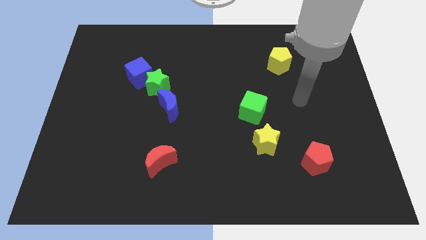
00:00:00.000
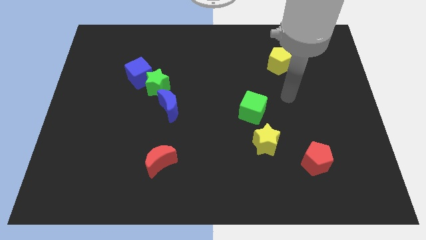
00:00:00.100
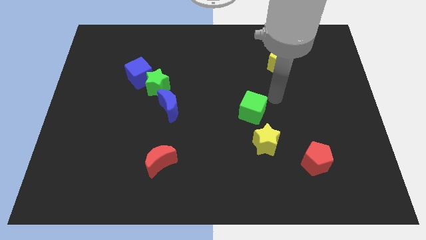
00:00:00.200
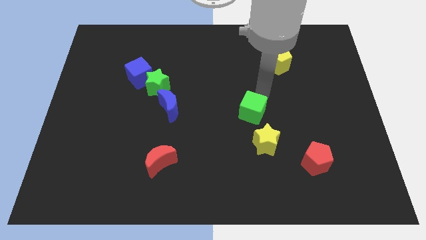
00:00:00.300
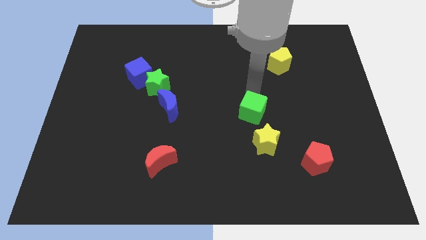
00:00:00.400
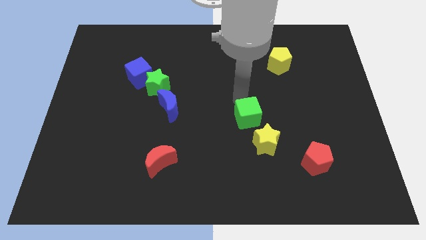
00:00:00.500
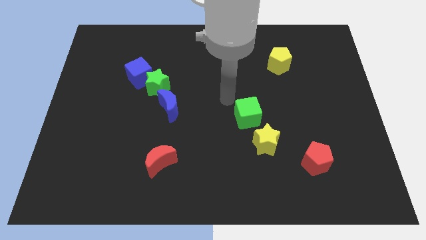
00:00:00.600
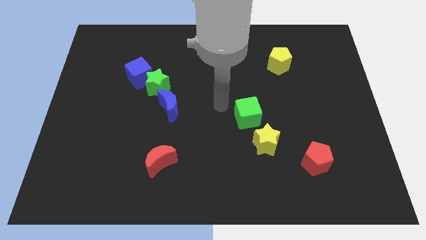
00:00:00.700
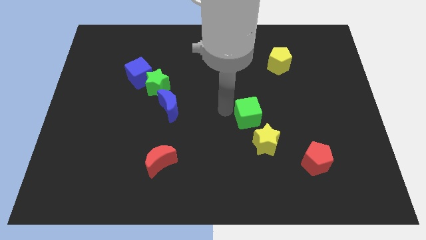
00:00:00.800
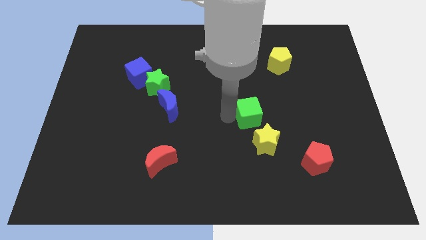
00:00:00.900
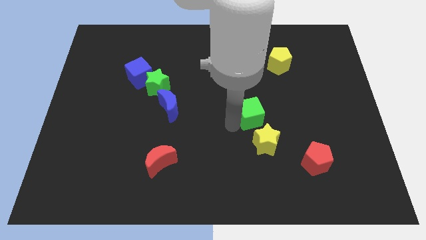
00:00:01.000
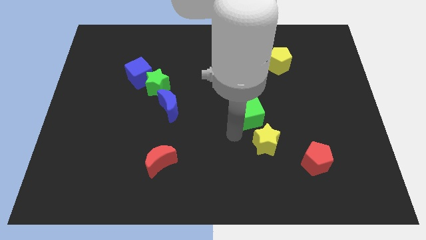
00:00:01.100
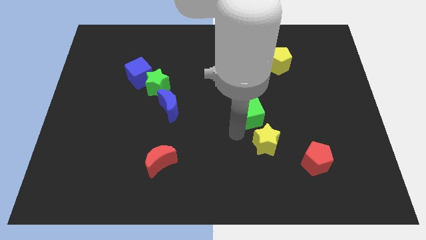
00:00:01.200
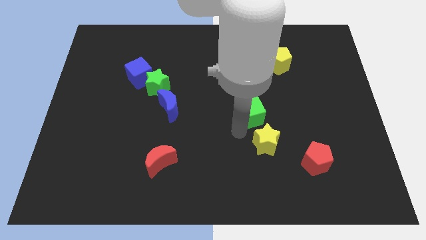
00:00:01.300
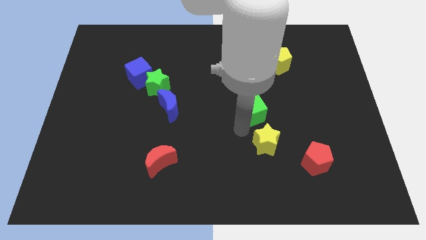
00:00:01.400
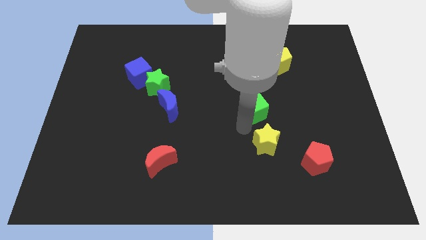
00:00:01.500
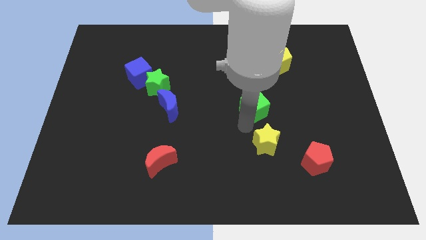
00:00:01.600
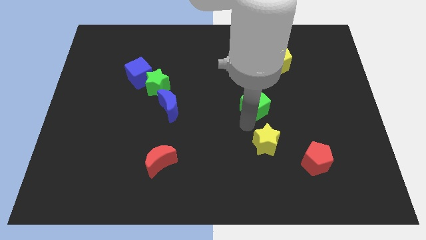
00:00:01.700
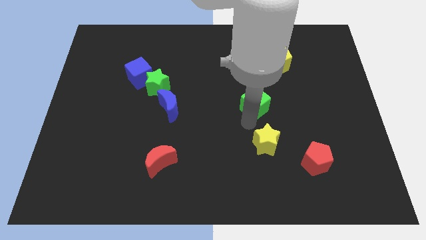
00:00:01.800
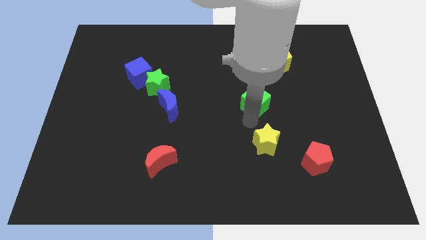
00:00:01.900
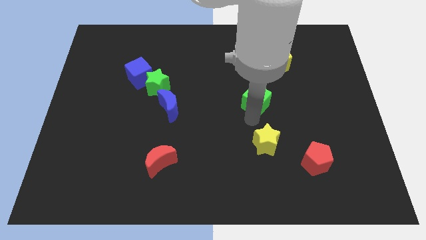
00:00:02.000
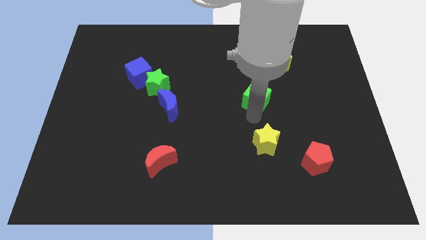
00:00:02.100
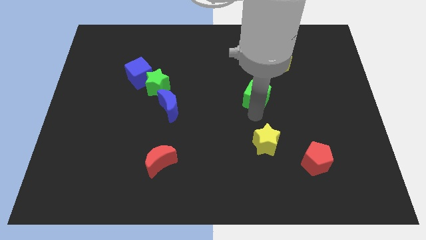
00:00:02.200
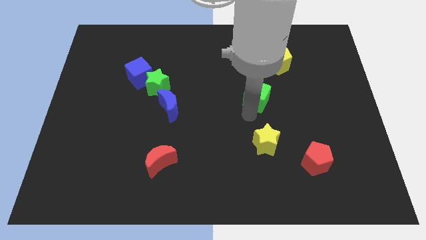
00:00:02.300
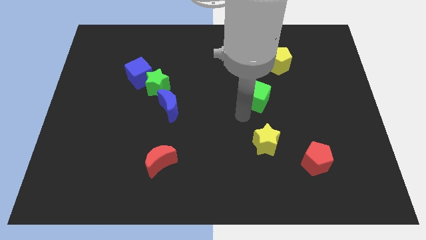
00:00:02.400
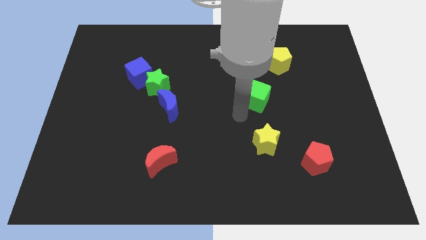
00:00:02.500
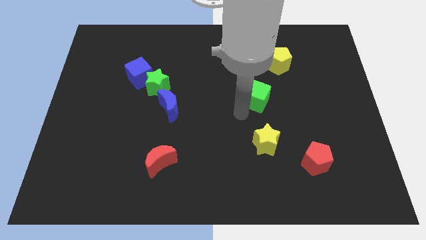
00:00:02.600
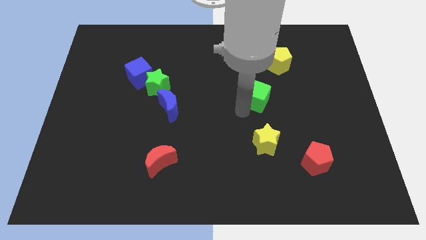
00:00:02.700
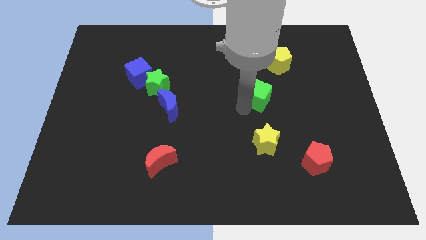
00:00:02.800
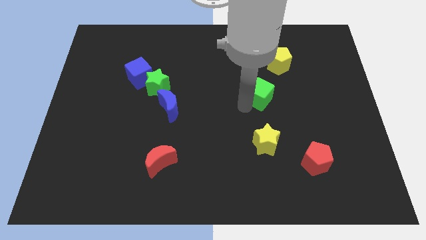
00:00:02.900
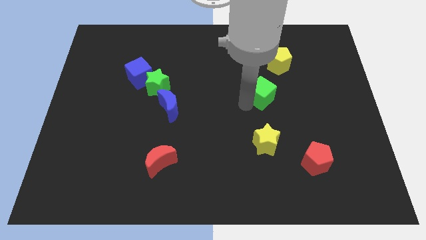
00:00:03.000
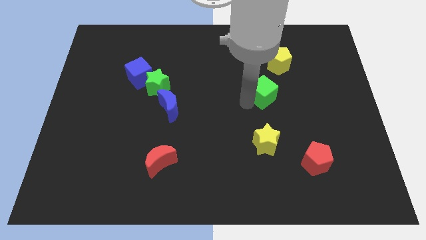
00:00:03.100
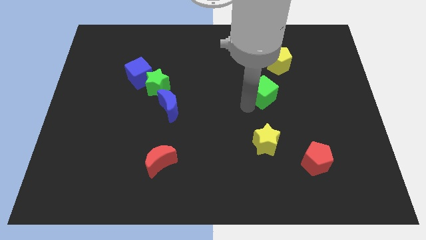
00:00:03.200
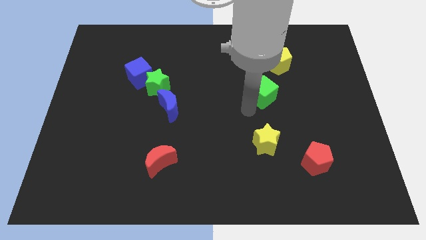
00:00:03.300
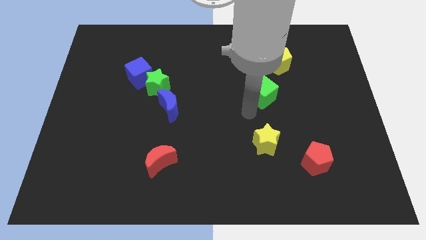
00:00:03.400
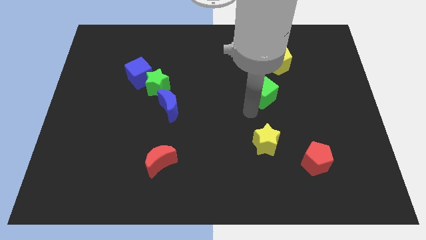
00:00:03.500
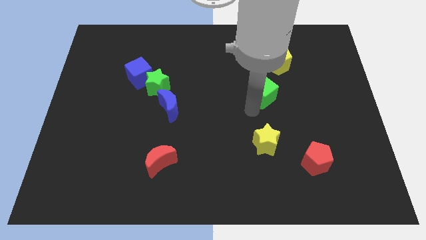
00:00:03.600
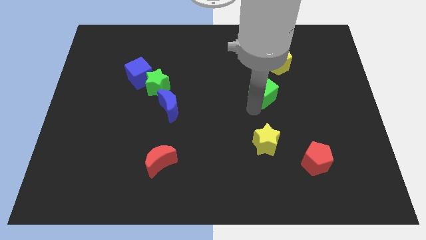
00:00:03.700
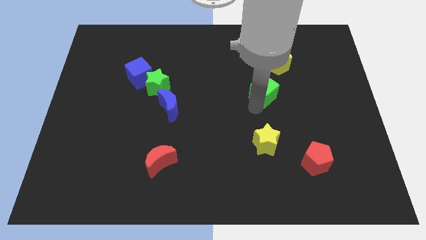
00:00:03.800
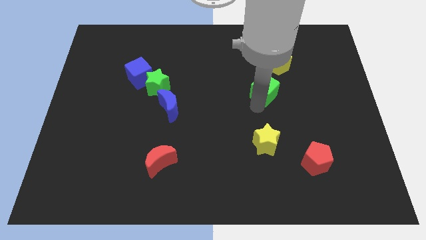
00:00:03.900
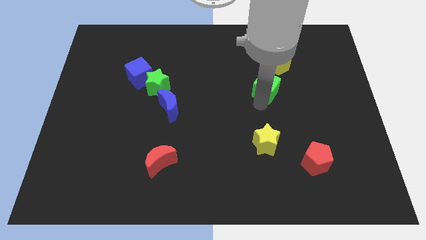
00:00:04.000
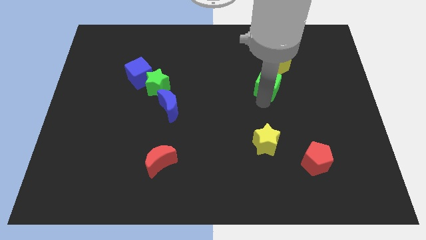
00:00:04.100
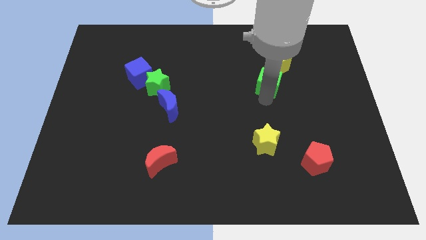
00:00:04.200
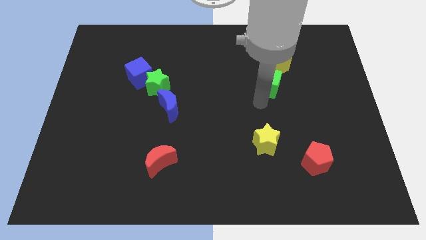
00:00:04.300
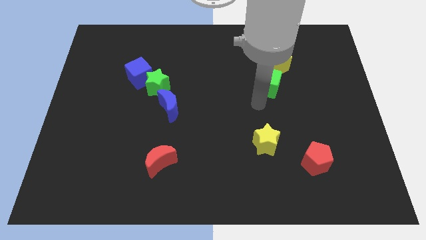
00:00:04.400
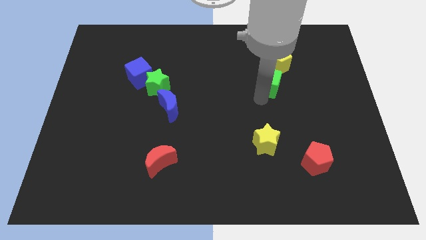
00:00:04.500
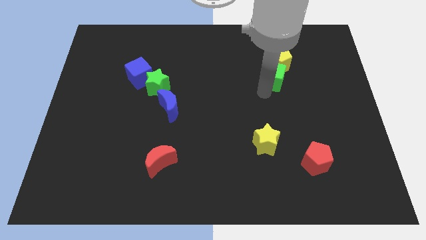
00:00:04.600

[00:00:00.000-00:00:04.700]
move the green cube towards the yellow pentagon

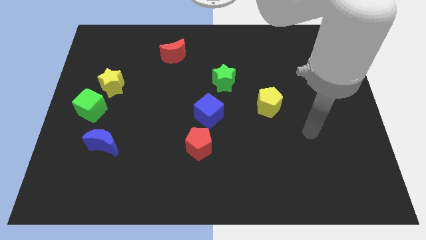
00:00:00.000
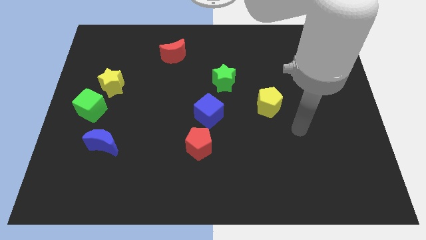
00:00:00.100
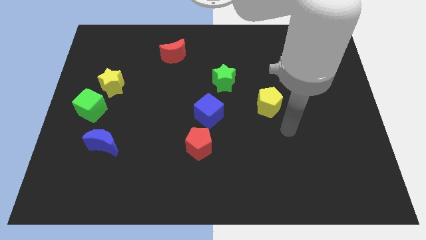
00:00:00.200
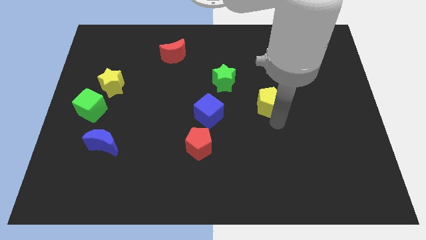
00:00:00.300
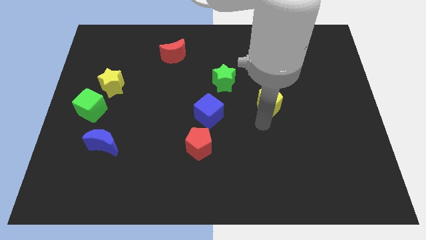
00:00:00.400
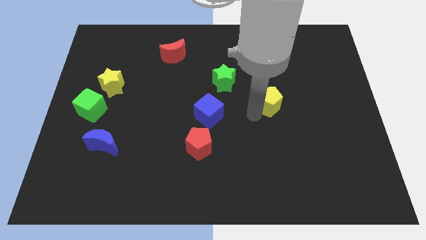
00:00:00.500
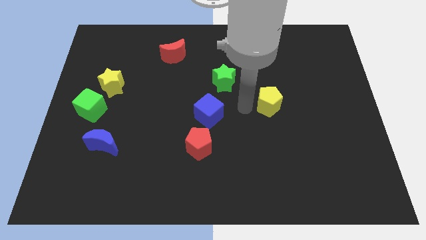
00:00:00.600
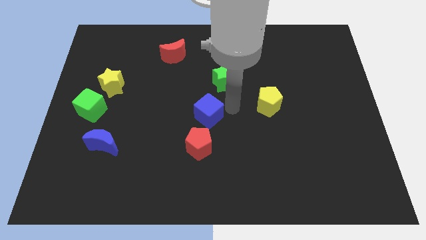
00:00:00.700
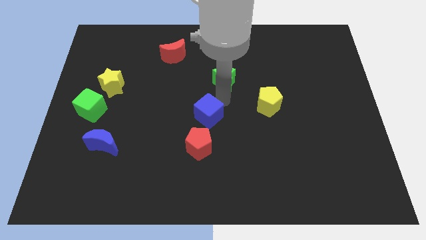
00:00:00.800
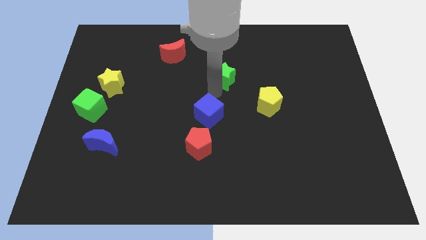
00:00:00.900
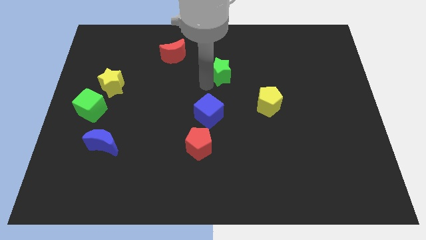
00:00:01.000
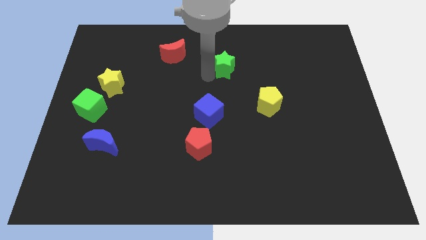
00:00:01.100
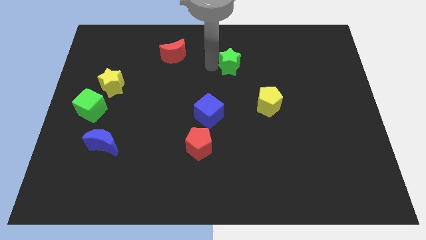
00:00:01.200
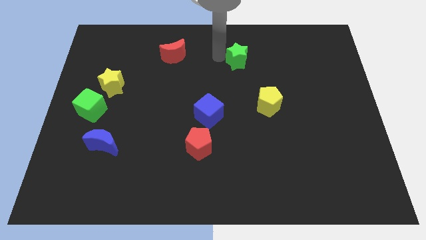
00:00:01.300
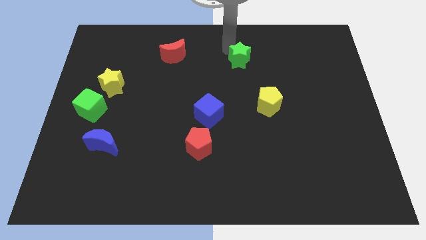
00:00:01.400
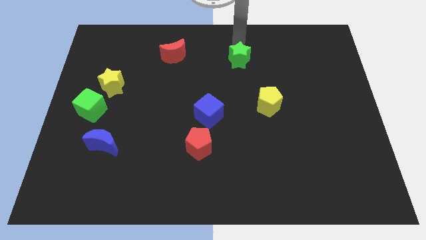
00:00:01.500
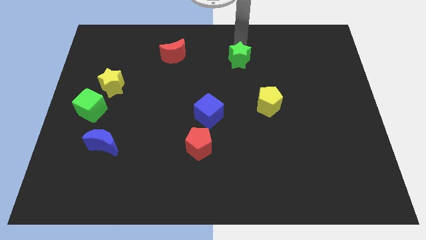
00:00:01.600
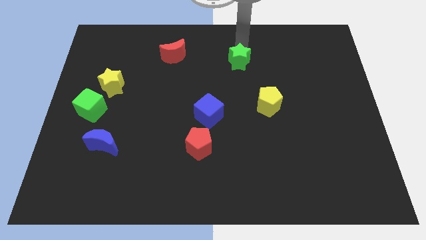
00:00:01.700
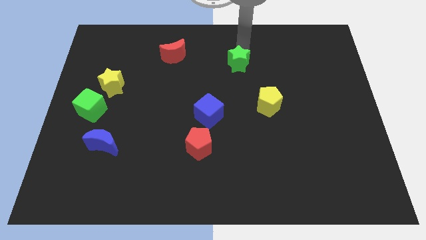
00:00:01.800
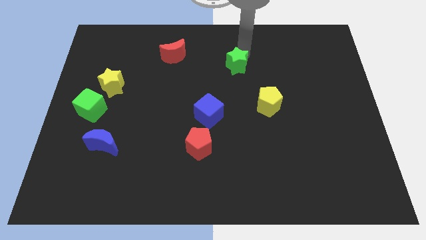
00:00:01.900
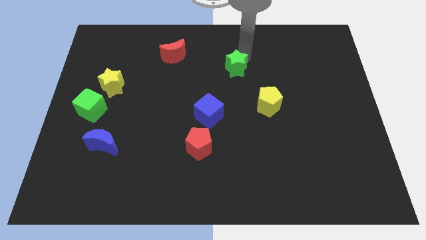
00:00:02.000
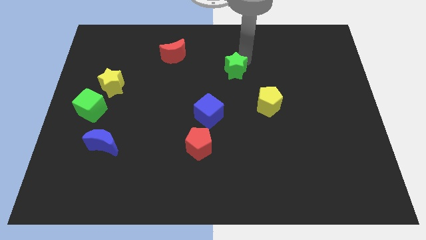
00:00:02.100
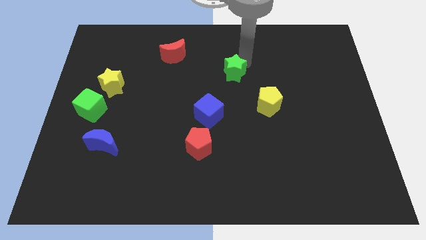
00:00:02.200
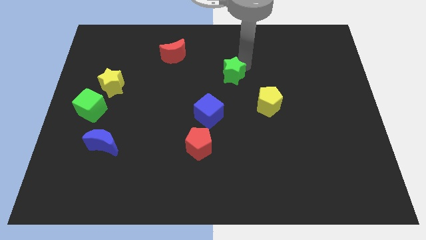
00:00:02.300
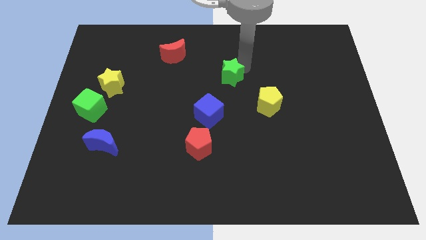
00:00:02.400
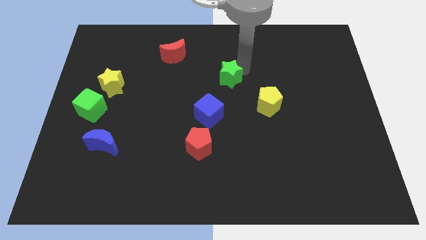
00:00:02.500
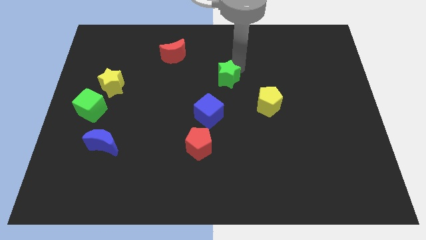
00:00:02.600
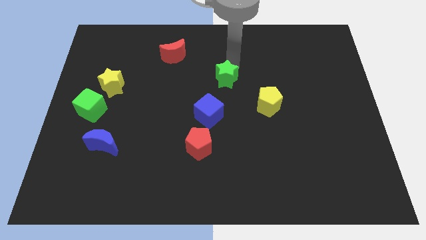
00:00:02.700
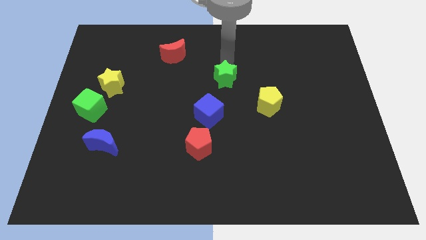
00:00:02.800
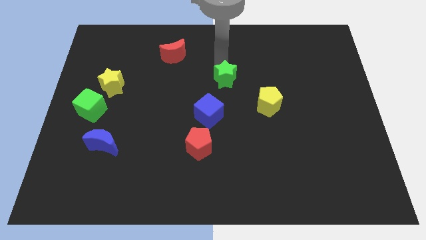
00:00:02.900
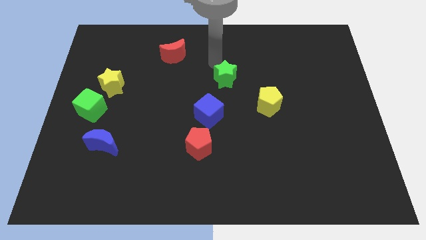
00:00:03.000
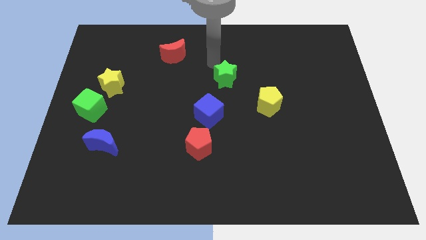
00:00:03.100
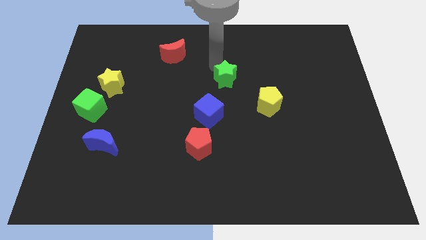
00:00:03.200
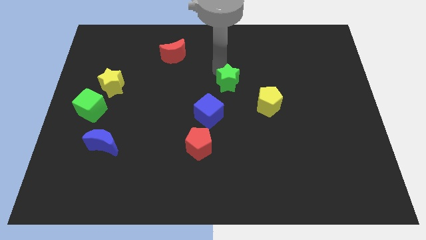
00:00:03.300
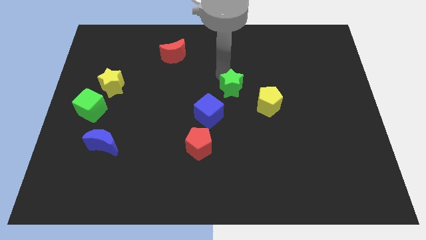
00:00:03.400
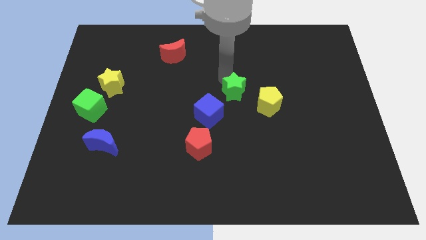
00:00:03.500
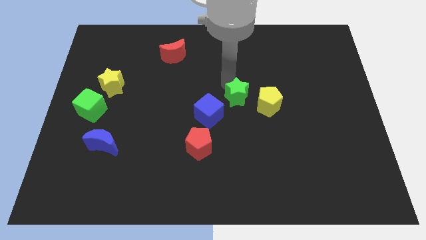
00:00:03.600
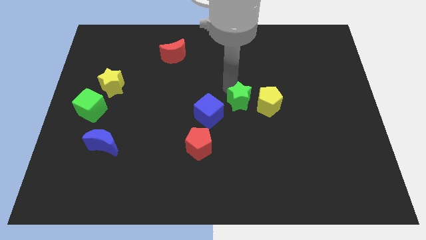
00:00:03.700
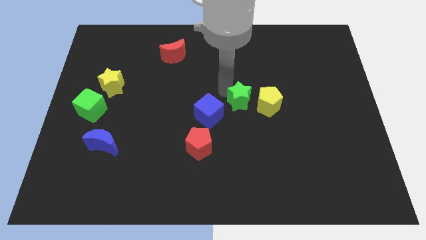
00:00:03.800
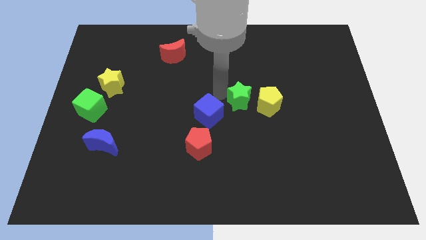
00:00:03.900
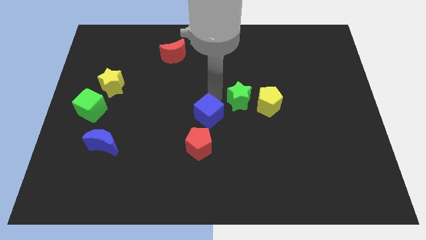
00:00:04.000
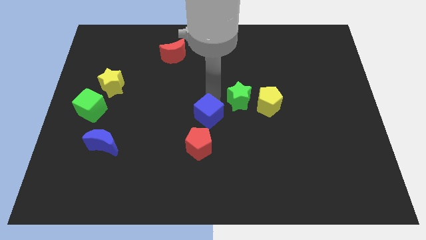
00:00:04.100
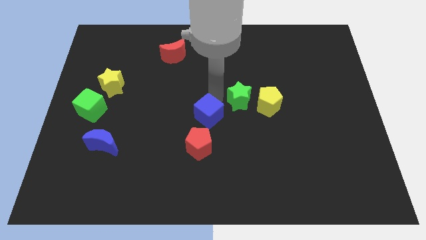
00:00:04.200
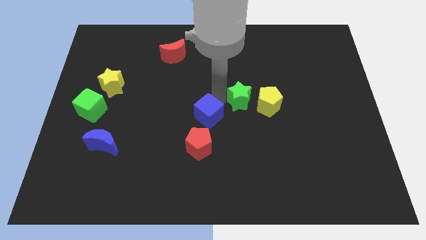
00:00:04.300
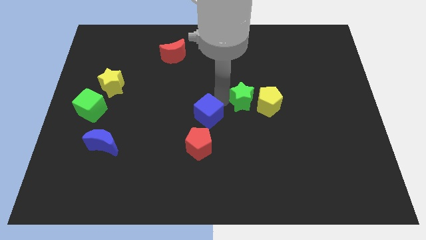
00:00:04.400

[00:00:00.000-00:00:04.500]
move the green star close to the yellow pentagon
